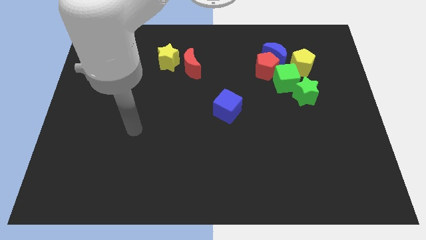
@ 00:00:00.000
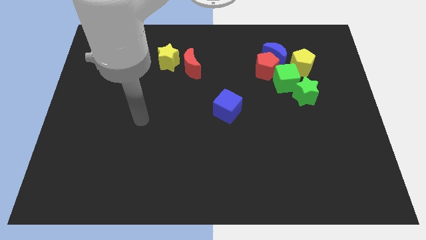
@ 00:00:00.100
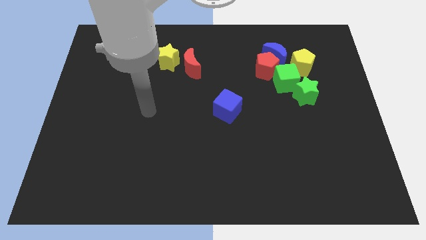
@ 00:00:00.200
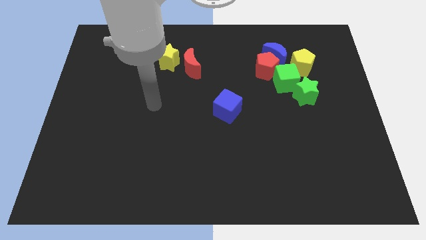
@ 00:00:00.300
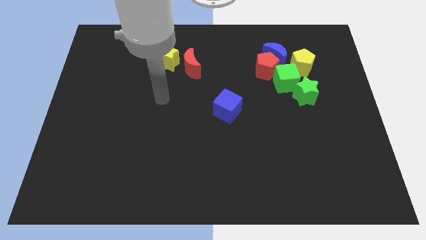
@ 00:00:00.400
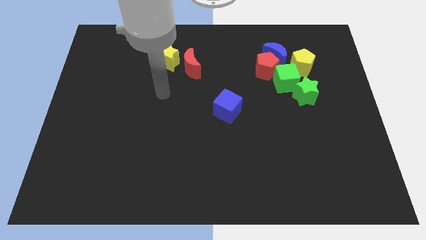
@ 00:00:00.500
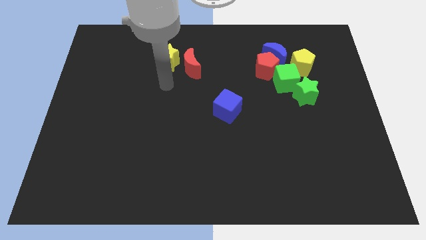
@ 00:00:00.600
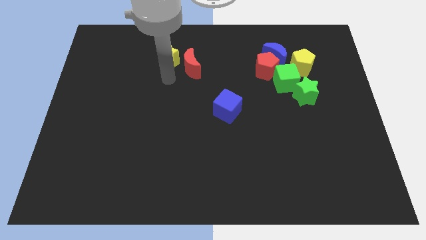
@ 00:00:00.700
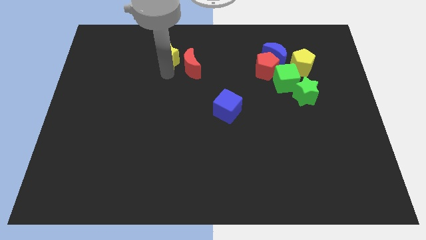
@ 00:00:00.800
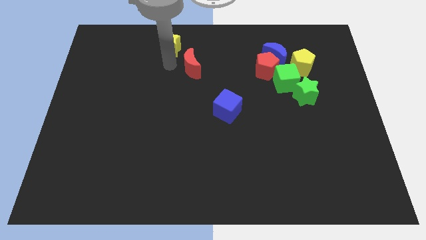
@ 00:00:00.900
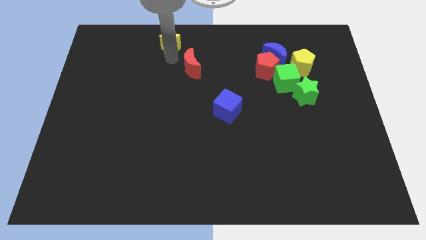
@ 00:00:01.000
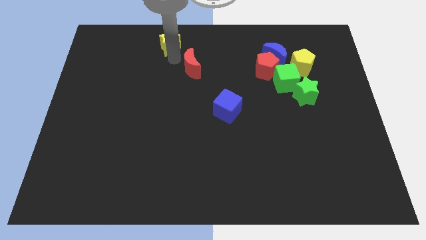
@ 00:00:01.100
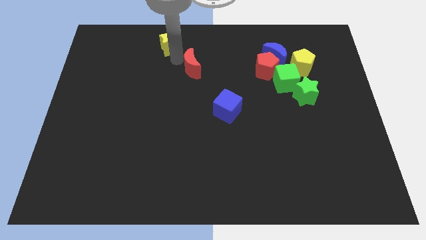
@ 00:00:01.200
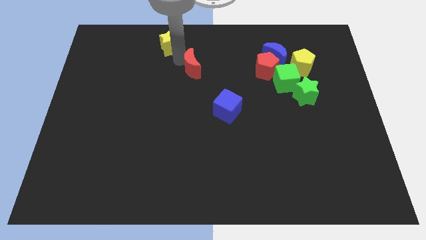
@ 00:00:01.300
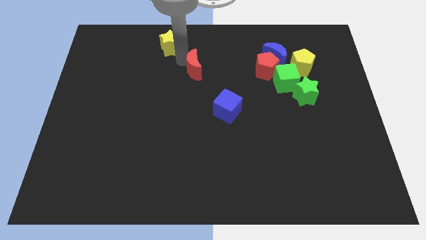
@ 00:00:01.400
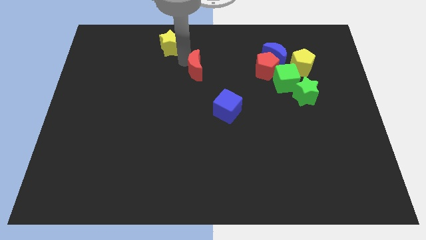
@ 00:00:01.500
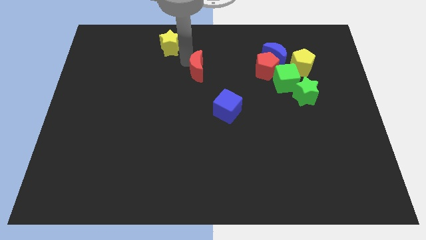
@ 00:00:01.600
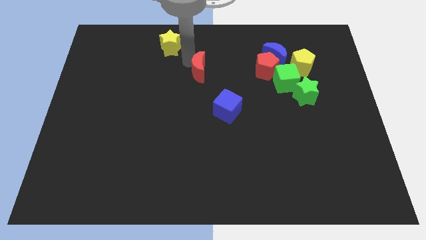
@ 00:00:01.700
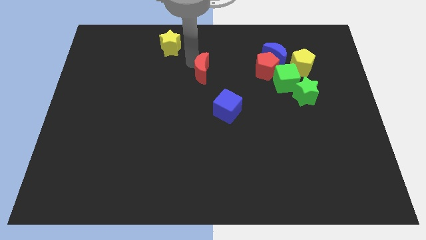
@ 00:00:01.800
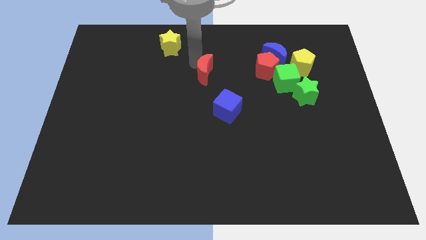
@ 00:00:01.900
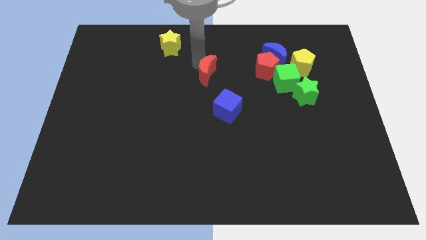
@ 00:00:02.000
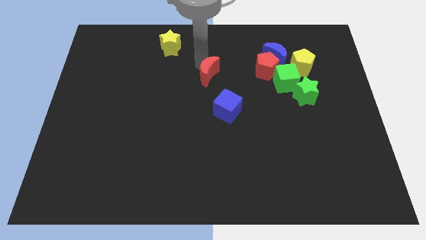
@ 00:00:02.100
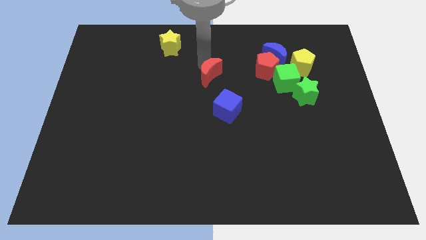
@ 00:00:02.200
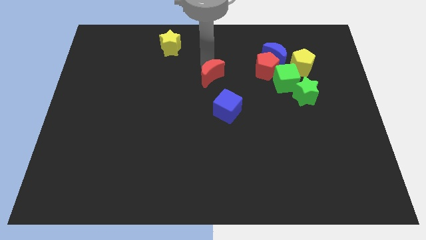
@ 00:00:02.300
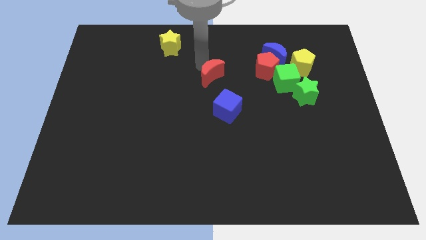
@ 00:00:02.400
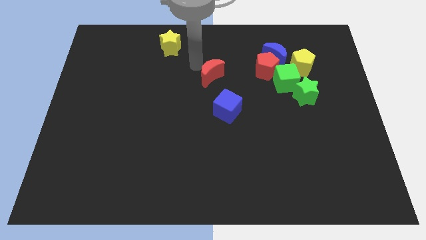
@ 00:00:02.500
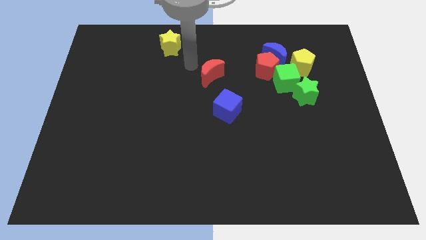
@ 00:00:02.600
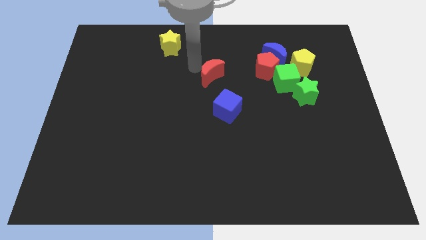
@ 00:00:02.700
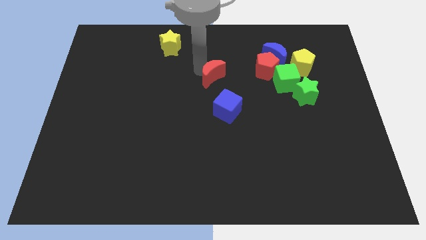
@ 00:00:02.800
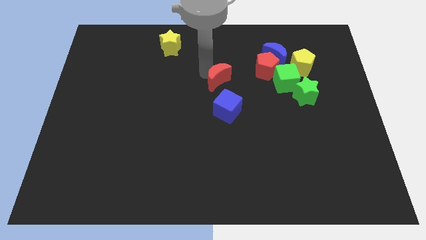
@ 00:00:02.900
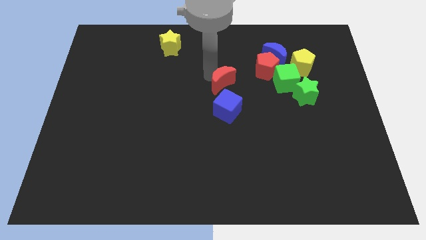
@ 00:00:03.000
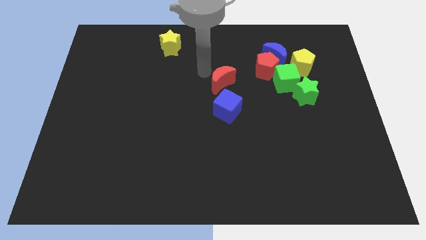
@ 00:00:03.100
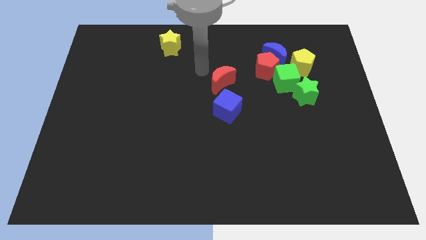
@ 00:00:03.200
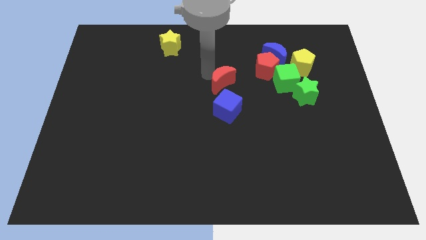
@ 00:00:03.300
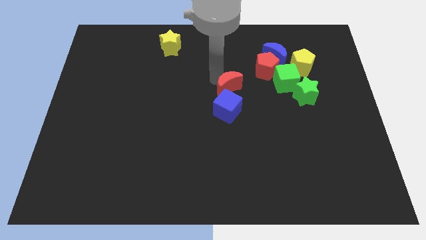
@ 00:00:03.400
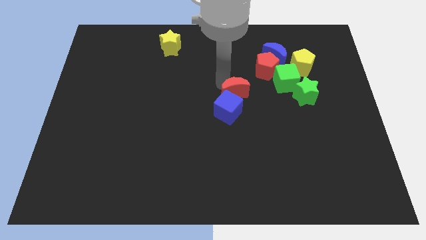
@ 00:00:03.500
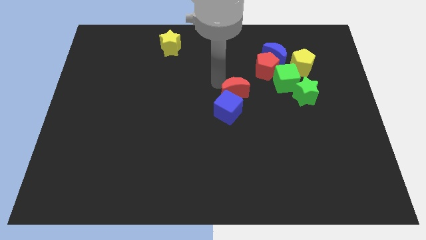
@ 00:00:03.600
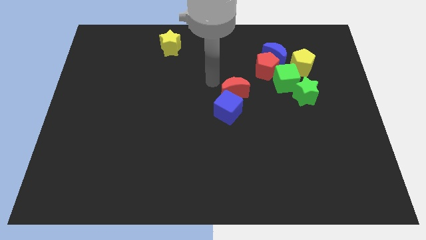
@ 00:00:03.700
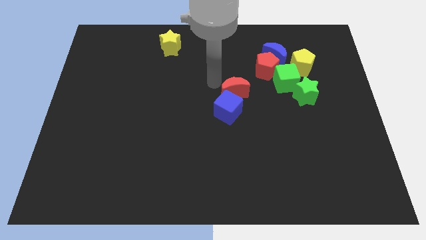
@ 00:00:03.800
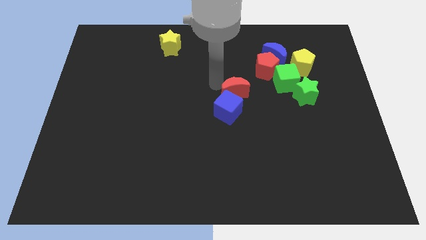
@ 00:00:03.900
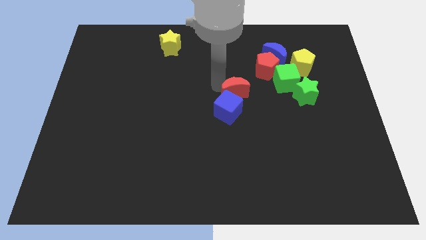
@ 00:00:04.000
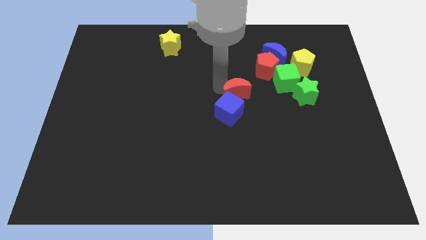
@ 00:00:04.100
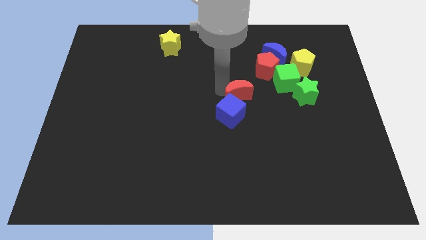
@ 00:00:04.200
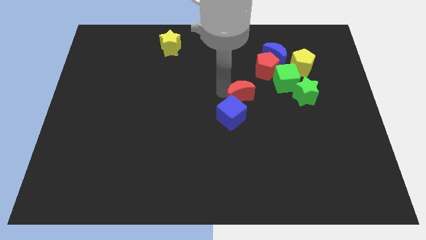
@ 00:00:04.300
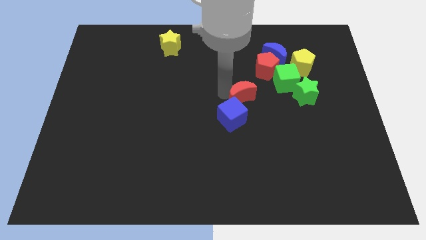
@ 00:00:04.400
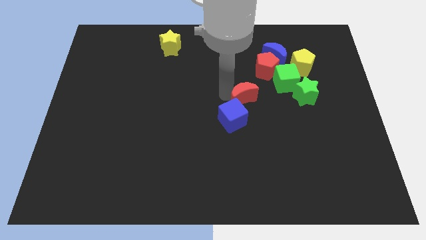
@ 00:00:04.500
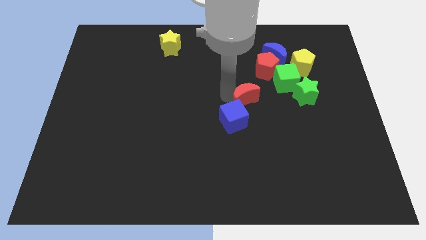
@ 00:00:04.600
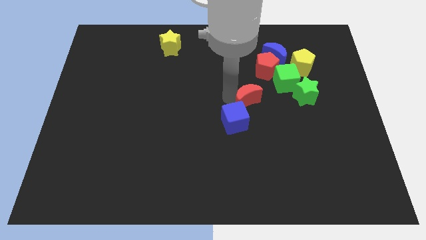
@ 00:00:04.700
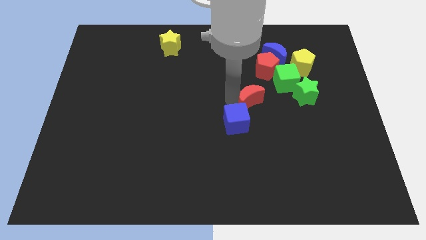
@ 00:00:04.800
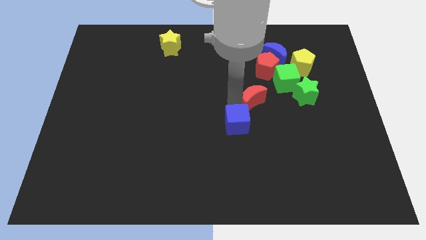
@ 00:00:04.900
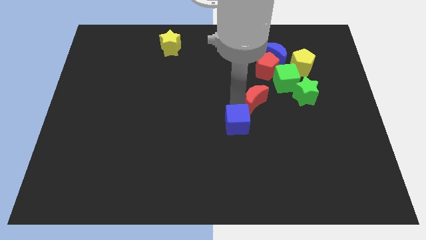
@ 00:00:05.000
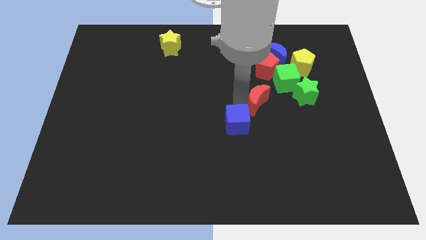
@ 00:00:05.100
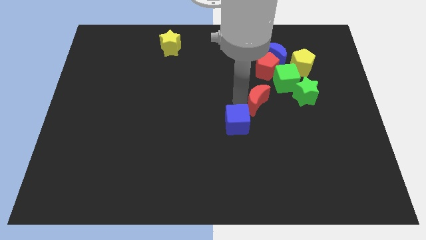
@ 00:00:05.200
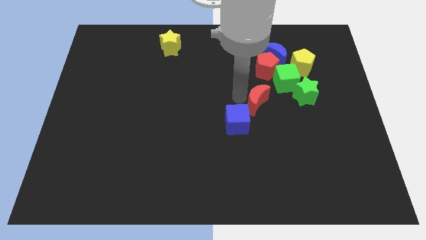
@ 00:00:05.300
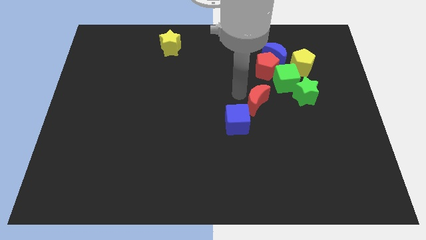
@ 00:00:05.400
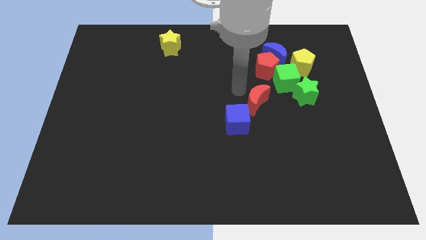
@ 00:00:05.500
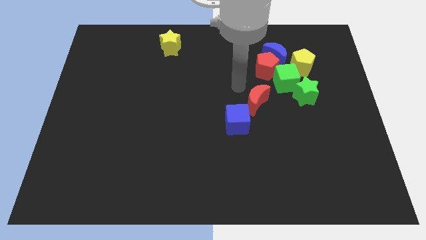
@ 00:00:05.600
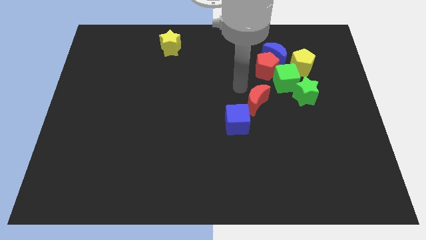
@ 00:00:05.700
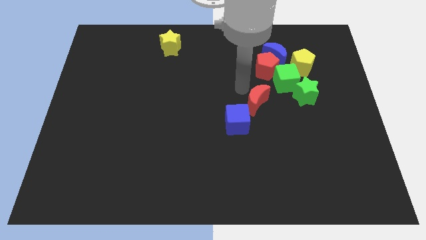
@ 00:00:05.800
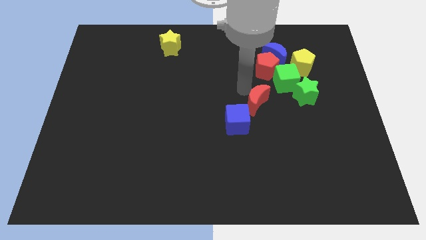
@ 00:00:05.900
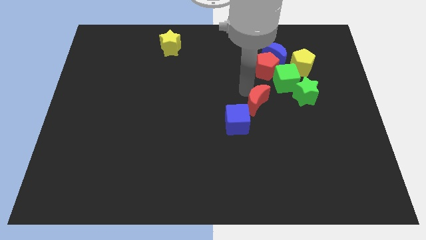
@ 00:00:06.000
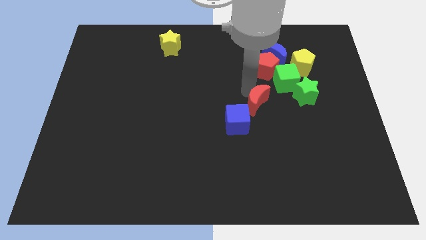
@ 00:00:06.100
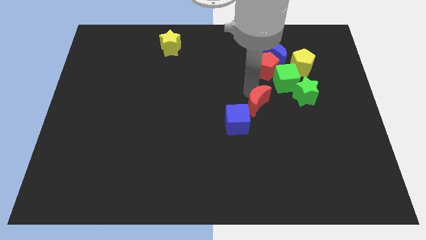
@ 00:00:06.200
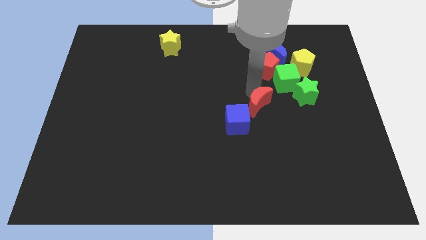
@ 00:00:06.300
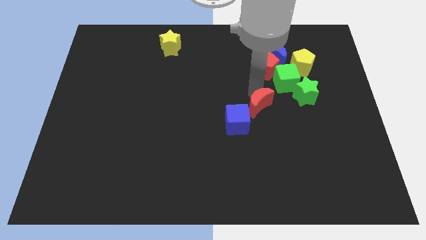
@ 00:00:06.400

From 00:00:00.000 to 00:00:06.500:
slide the red moon downwards and to the right diagonally

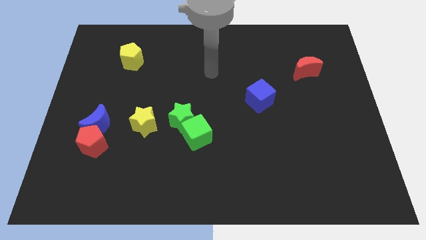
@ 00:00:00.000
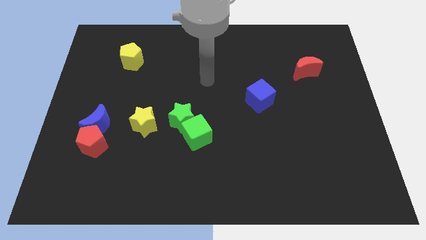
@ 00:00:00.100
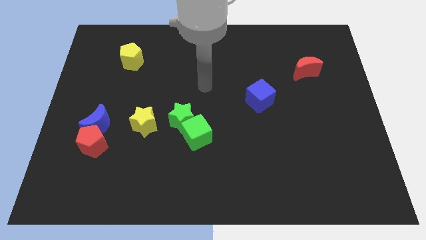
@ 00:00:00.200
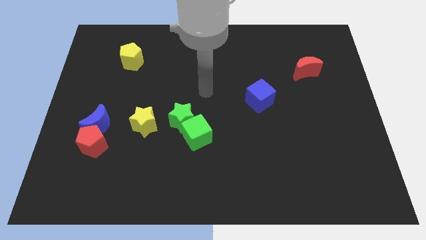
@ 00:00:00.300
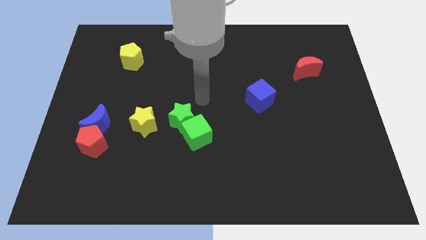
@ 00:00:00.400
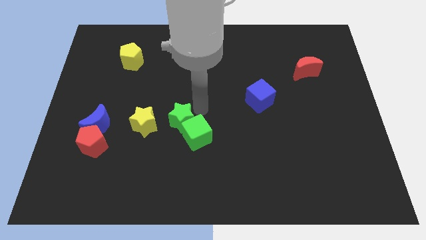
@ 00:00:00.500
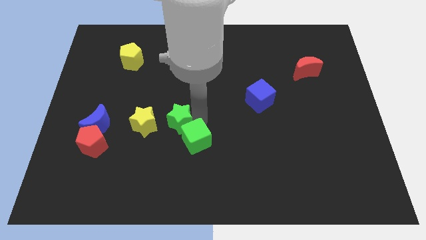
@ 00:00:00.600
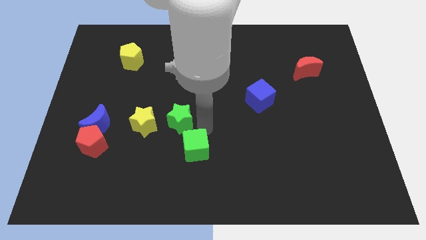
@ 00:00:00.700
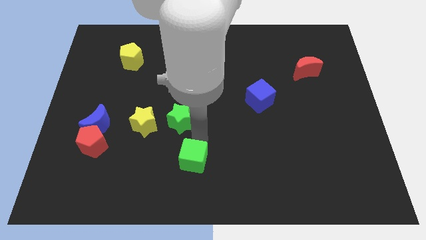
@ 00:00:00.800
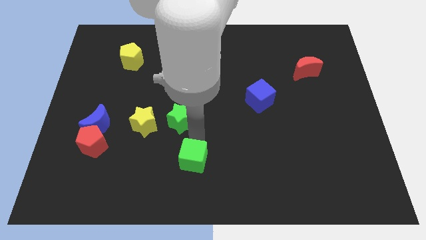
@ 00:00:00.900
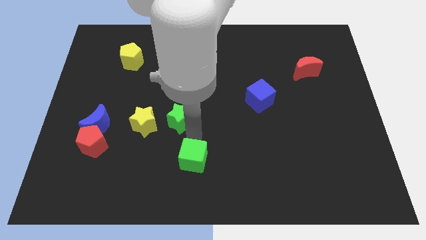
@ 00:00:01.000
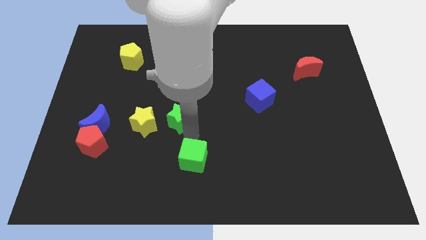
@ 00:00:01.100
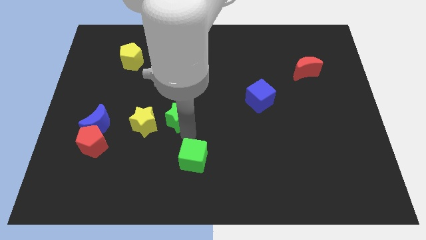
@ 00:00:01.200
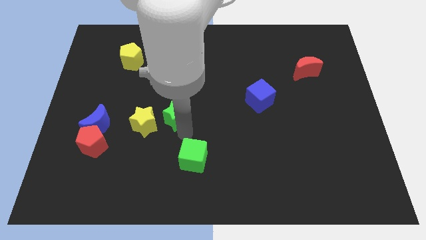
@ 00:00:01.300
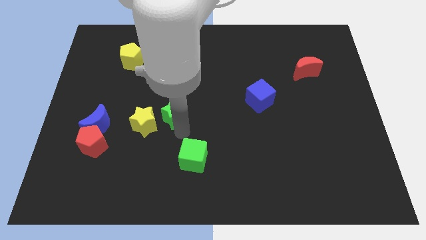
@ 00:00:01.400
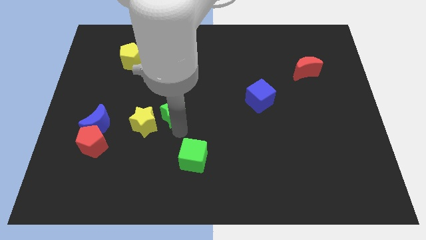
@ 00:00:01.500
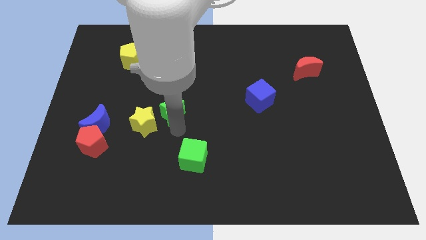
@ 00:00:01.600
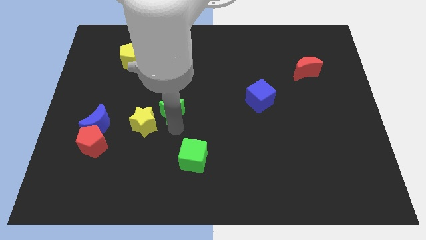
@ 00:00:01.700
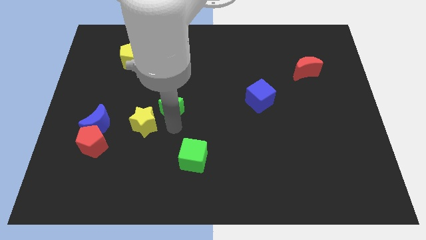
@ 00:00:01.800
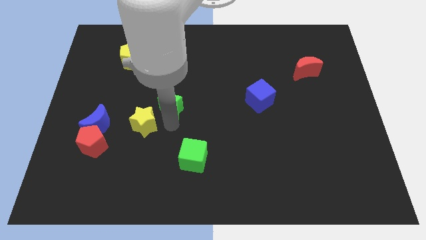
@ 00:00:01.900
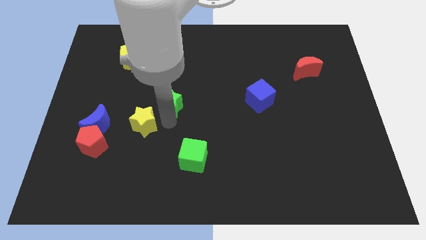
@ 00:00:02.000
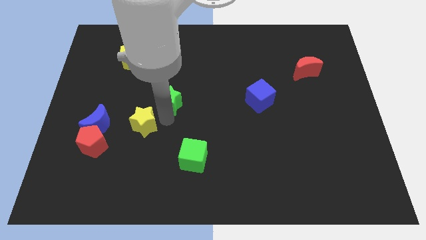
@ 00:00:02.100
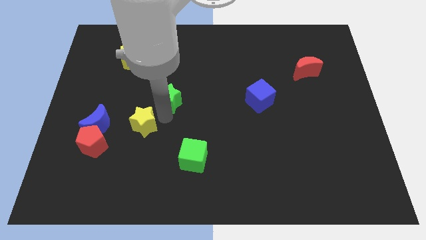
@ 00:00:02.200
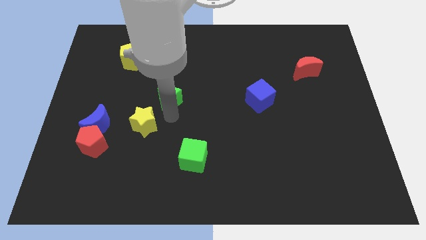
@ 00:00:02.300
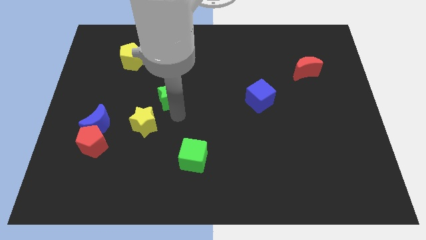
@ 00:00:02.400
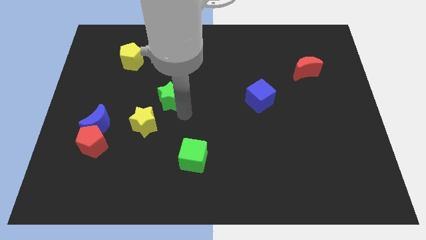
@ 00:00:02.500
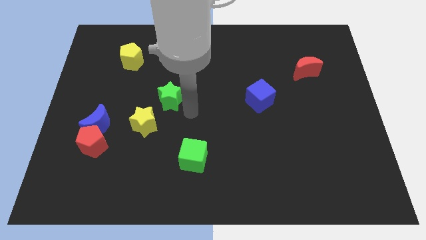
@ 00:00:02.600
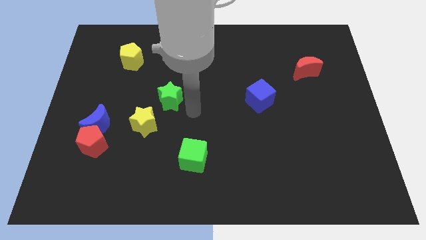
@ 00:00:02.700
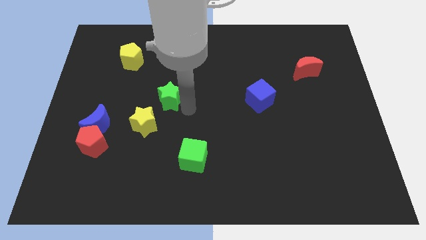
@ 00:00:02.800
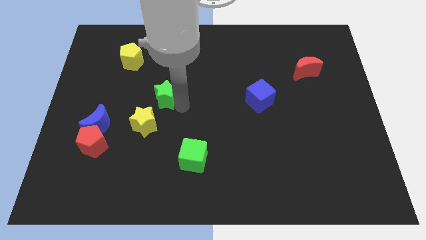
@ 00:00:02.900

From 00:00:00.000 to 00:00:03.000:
slightly slide the green star diagonally up and to the left
